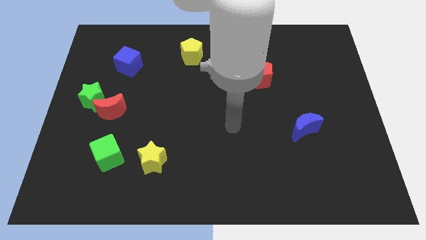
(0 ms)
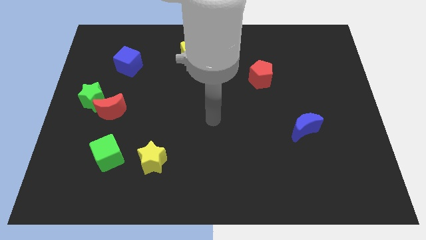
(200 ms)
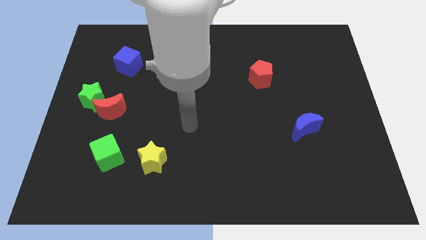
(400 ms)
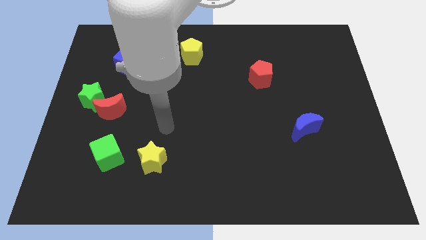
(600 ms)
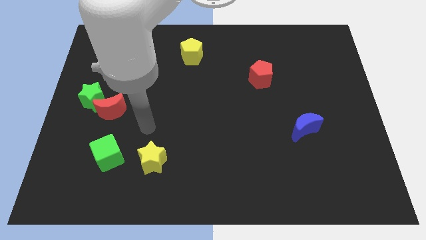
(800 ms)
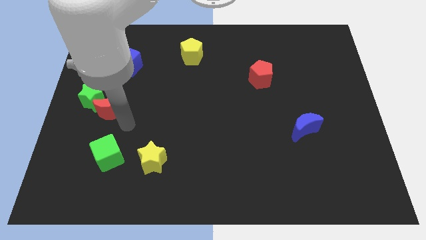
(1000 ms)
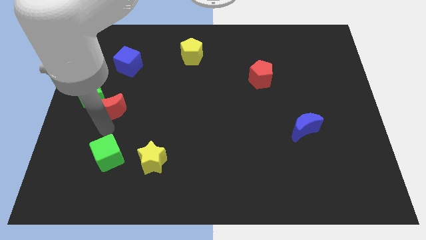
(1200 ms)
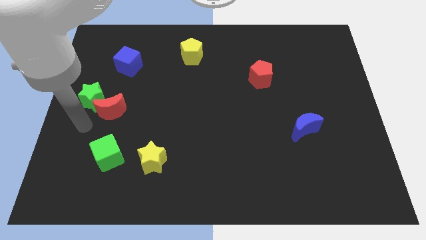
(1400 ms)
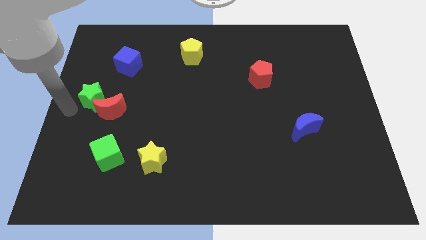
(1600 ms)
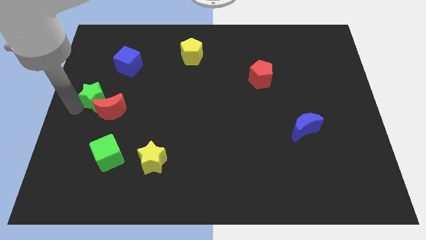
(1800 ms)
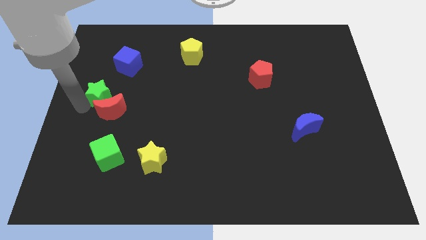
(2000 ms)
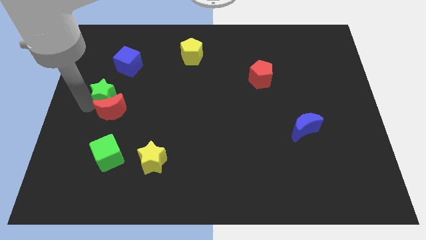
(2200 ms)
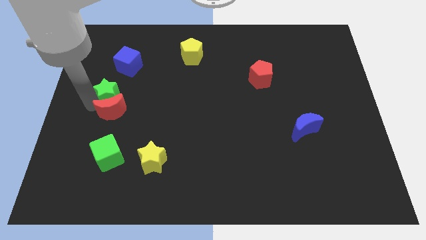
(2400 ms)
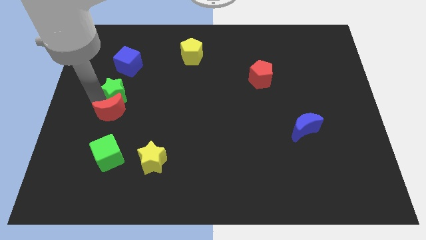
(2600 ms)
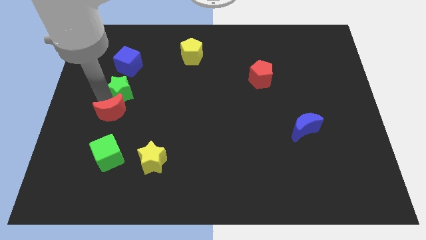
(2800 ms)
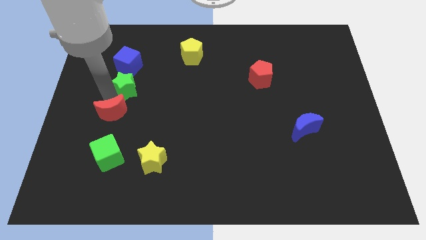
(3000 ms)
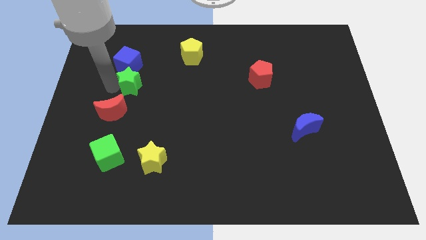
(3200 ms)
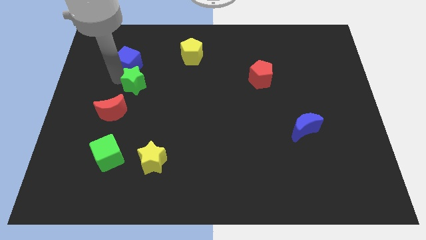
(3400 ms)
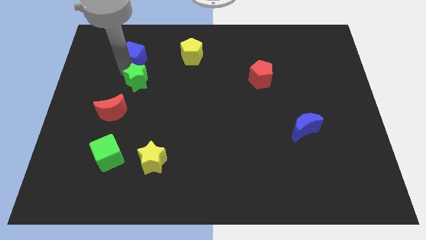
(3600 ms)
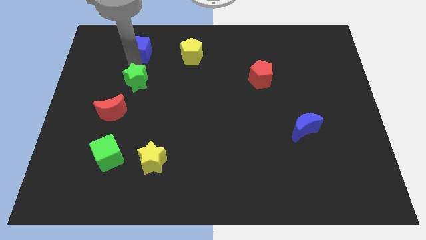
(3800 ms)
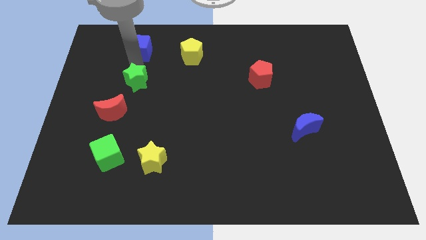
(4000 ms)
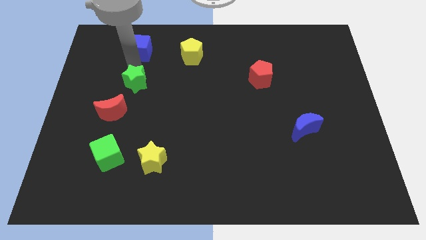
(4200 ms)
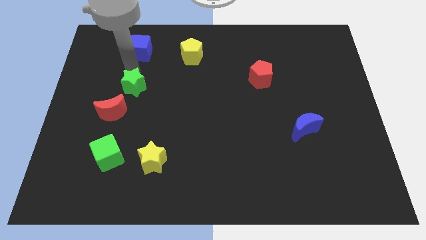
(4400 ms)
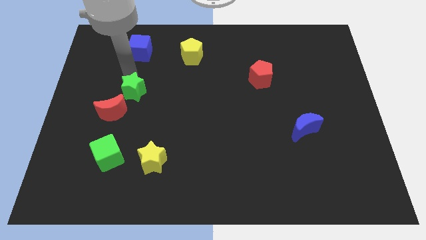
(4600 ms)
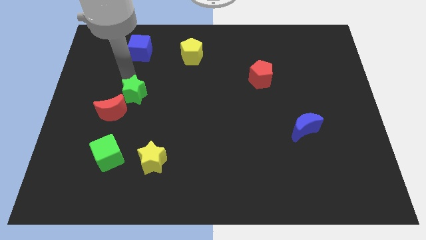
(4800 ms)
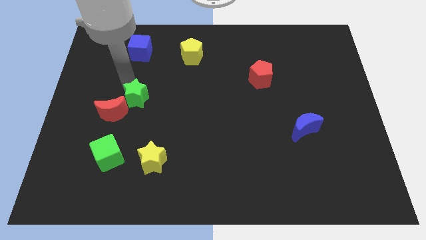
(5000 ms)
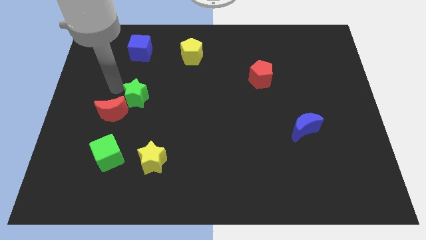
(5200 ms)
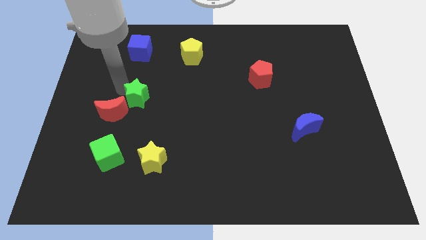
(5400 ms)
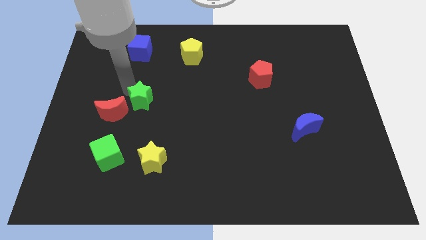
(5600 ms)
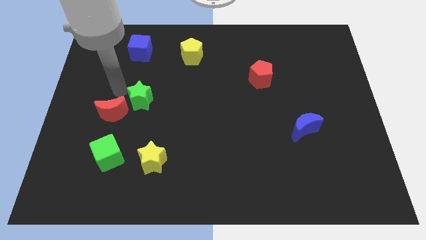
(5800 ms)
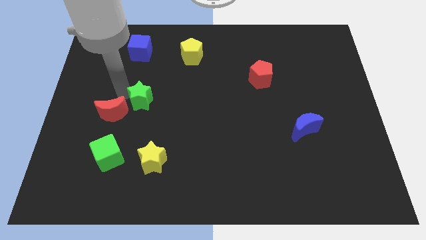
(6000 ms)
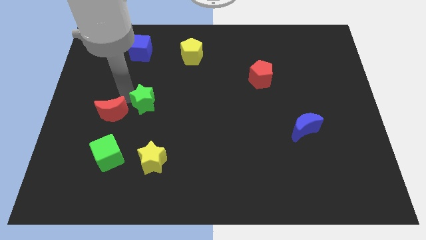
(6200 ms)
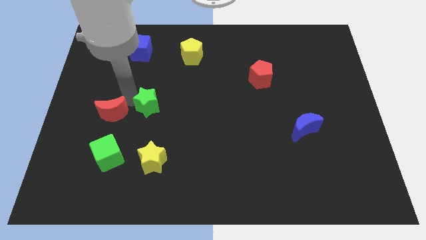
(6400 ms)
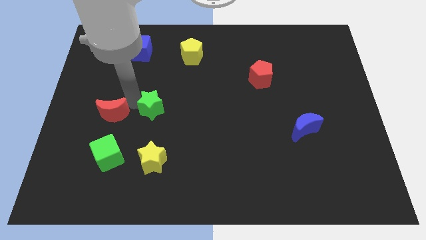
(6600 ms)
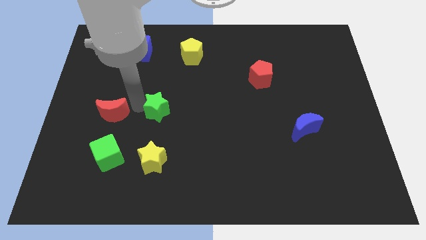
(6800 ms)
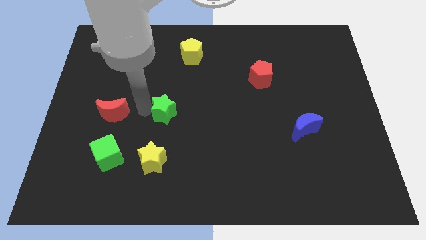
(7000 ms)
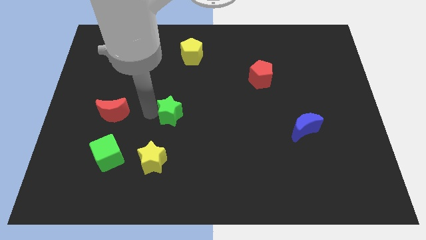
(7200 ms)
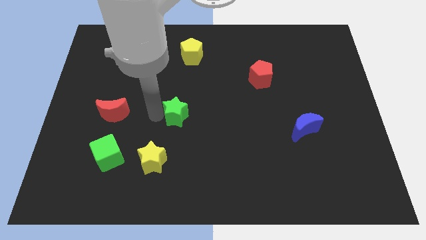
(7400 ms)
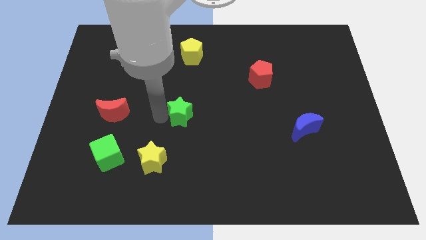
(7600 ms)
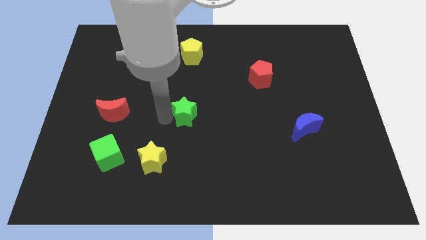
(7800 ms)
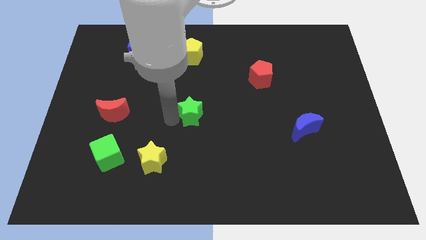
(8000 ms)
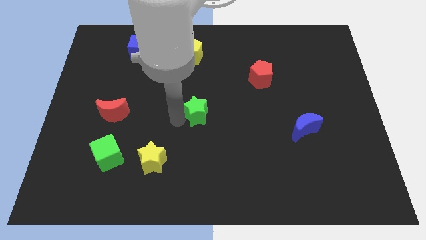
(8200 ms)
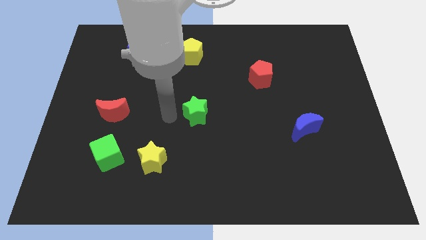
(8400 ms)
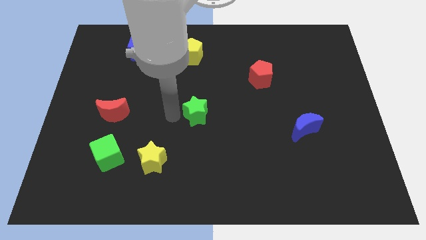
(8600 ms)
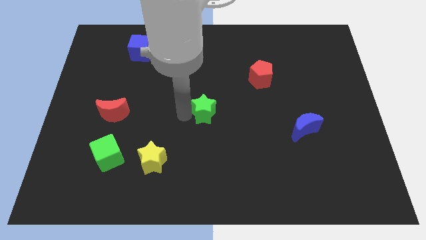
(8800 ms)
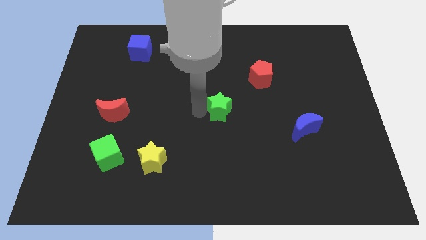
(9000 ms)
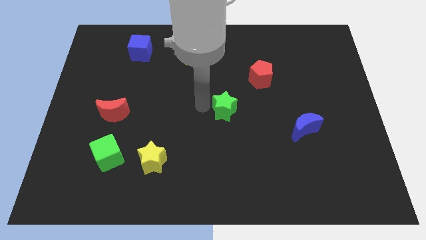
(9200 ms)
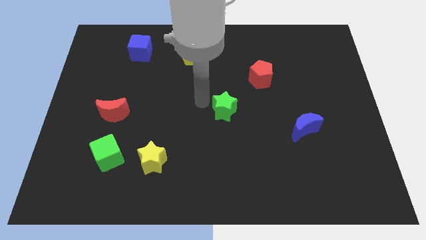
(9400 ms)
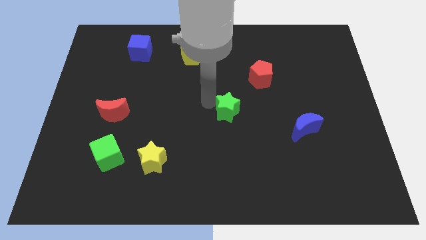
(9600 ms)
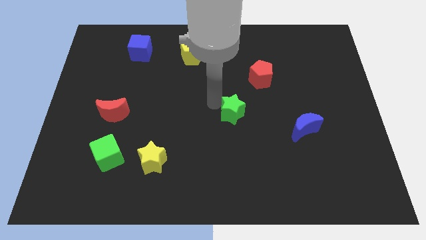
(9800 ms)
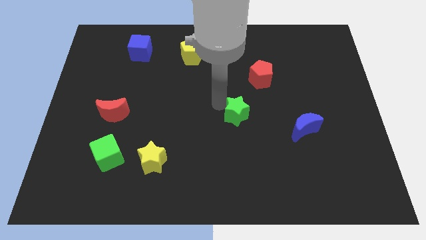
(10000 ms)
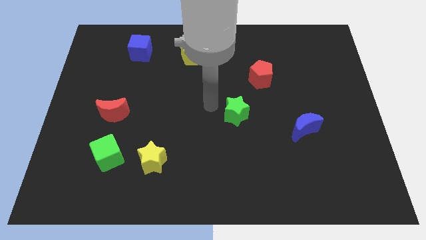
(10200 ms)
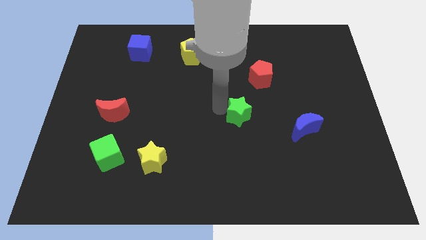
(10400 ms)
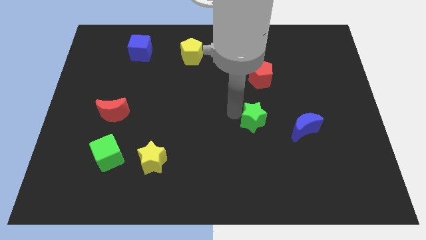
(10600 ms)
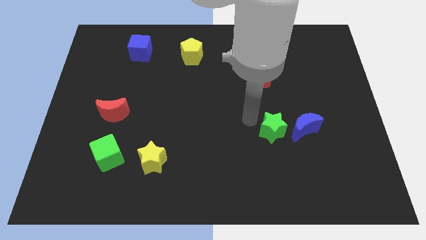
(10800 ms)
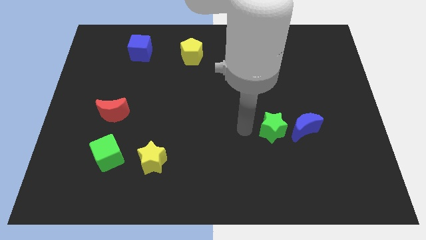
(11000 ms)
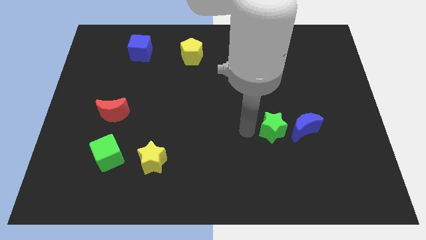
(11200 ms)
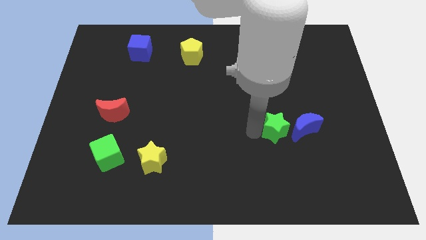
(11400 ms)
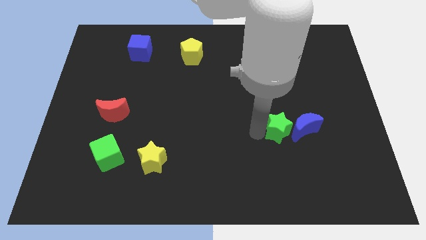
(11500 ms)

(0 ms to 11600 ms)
slide the green star next to the blue moon

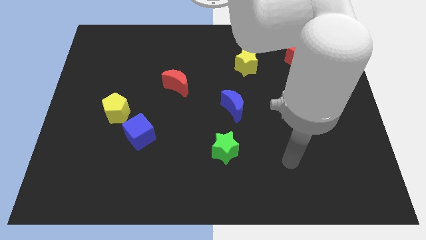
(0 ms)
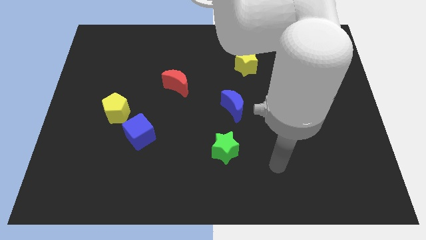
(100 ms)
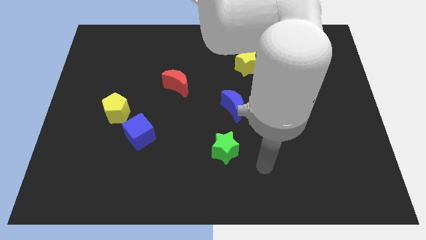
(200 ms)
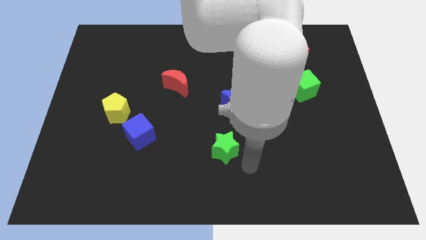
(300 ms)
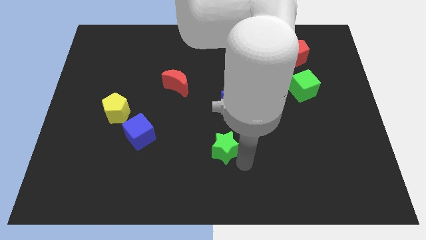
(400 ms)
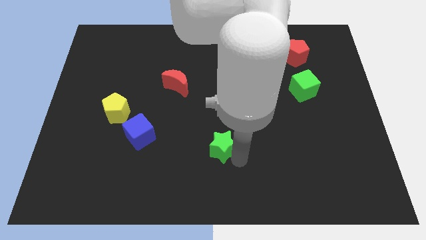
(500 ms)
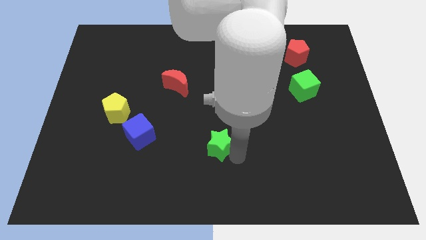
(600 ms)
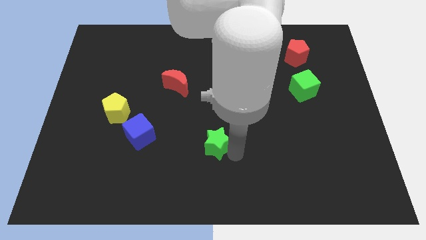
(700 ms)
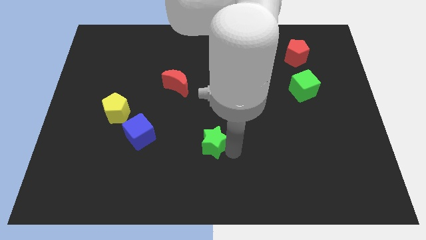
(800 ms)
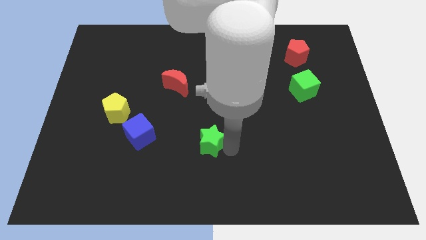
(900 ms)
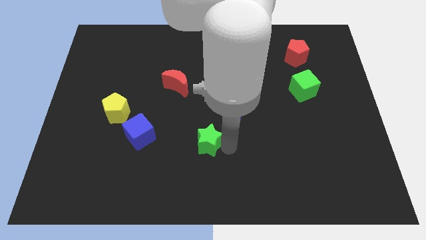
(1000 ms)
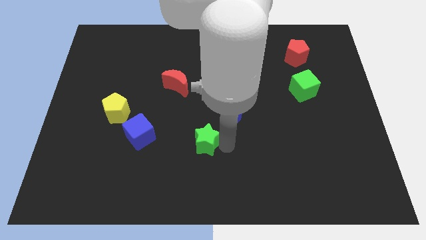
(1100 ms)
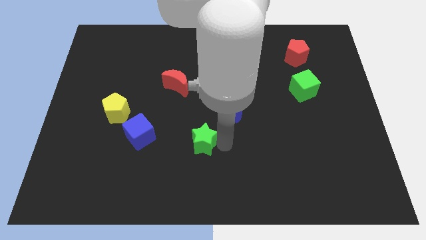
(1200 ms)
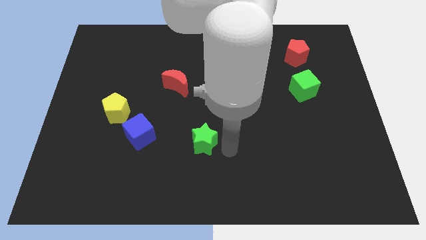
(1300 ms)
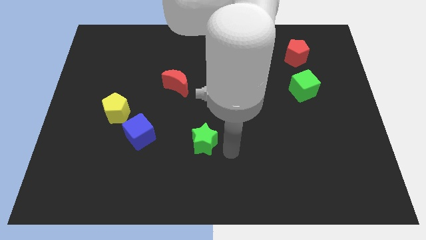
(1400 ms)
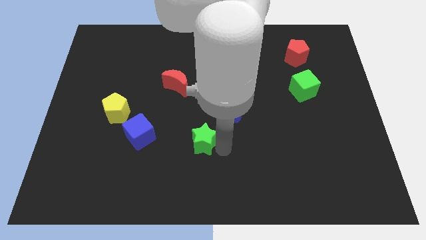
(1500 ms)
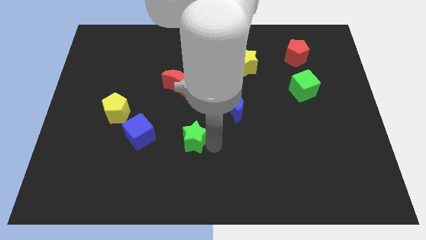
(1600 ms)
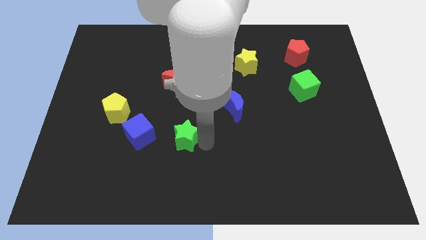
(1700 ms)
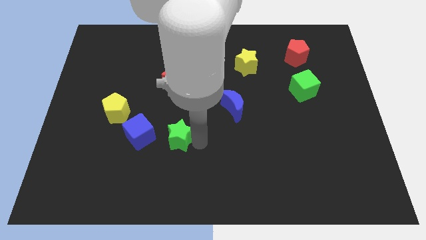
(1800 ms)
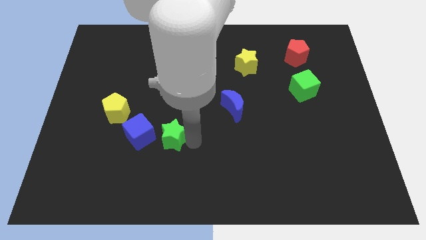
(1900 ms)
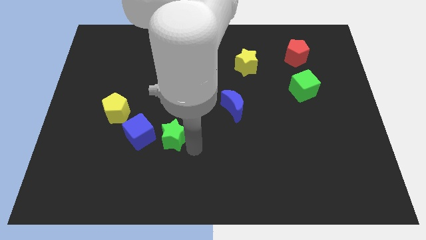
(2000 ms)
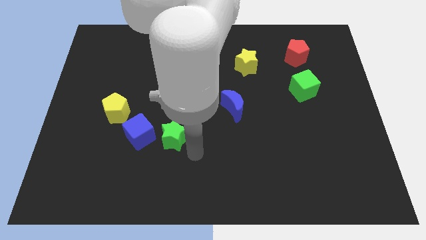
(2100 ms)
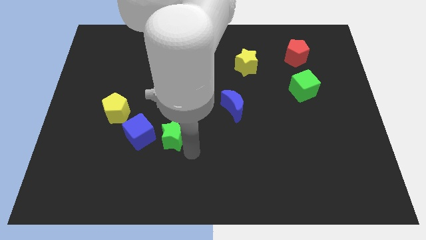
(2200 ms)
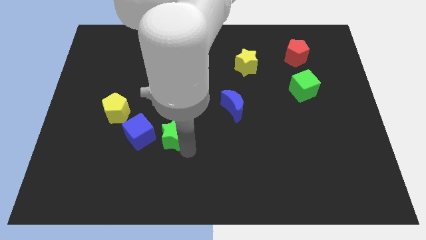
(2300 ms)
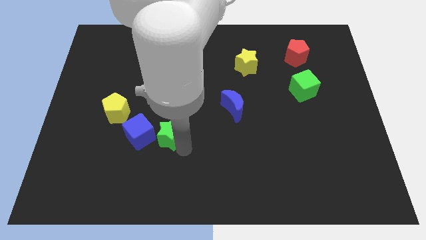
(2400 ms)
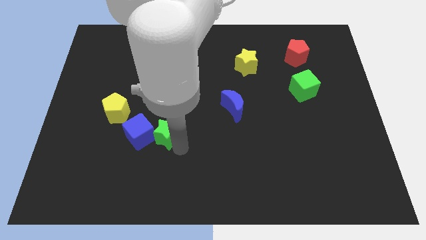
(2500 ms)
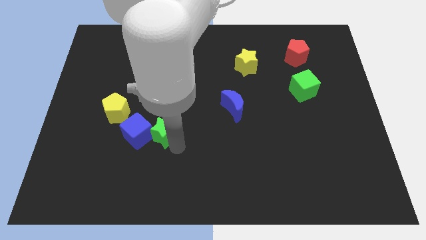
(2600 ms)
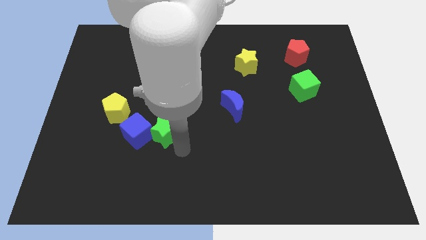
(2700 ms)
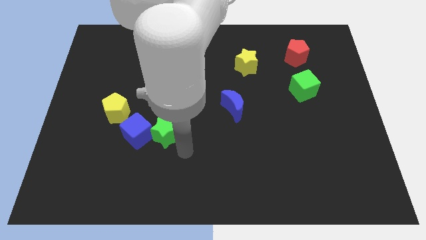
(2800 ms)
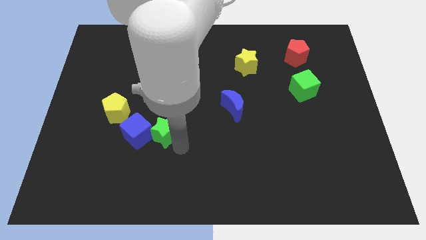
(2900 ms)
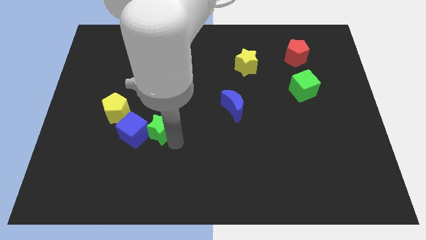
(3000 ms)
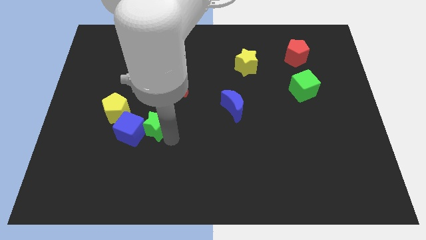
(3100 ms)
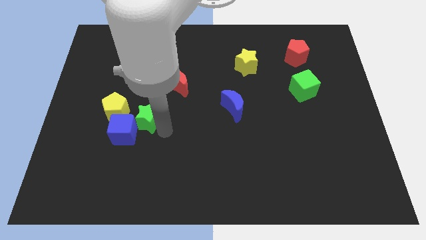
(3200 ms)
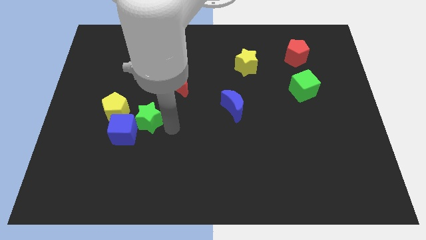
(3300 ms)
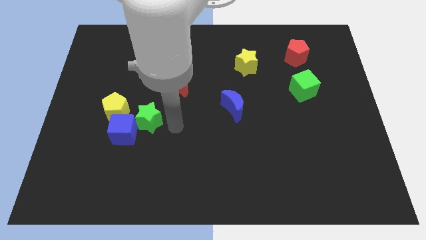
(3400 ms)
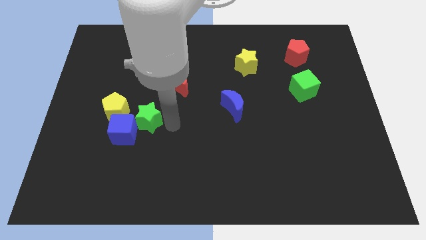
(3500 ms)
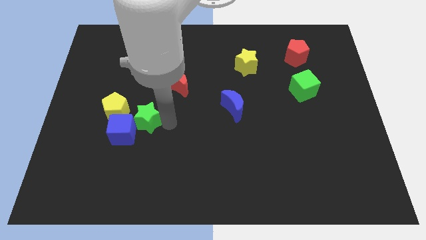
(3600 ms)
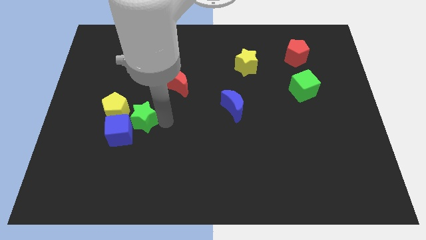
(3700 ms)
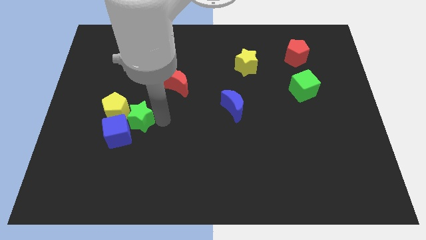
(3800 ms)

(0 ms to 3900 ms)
move the green star close to the yellow pentagon
